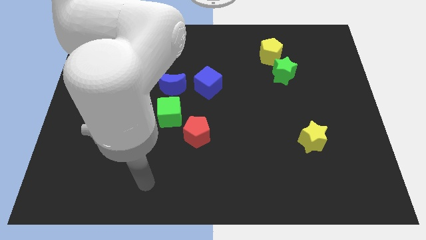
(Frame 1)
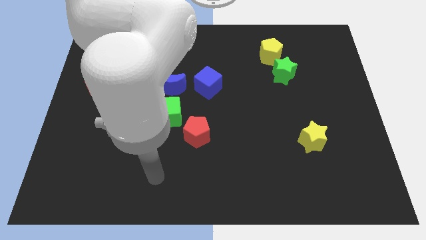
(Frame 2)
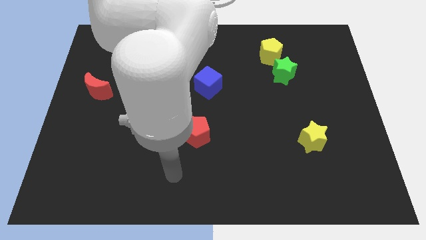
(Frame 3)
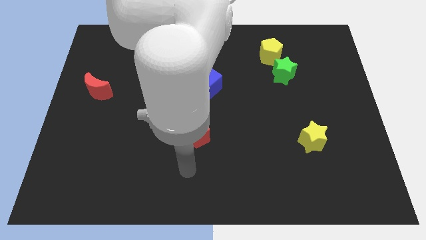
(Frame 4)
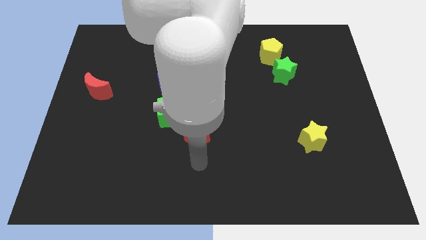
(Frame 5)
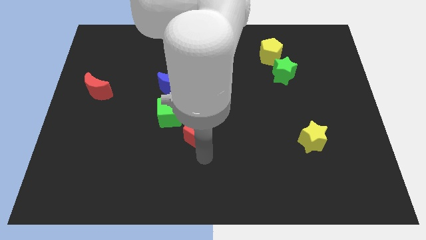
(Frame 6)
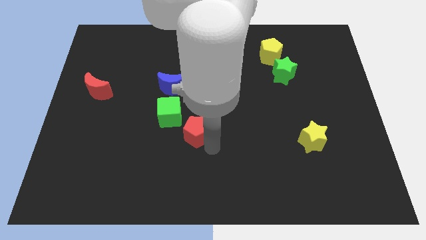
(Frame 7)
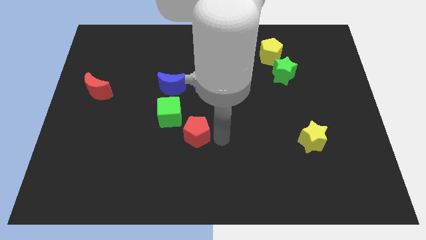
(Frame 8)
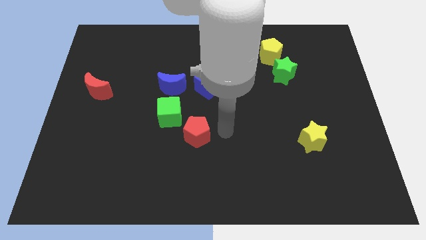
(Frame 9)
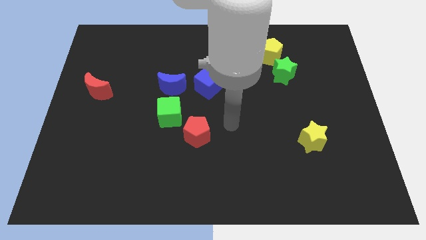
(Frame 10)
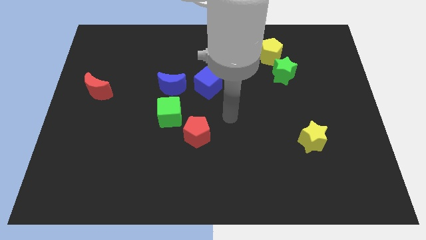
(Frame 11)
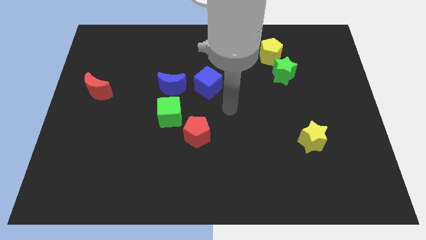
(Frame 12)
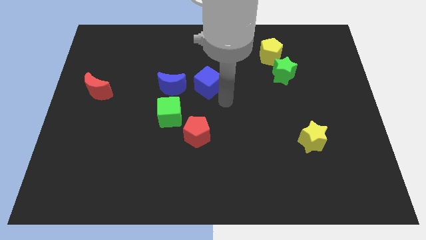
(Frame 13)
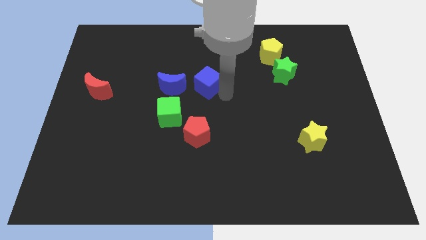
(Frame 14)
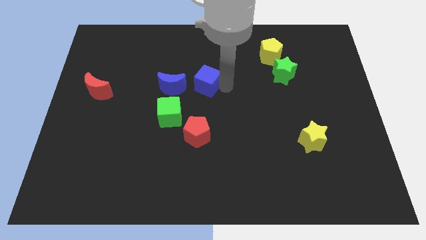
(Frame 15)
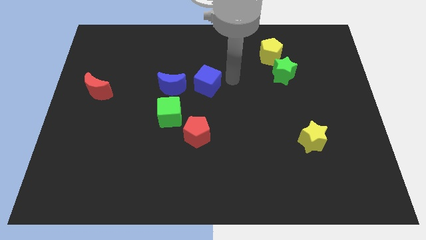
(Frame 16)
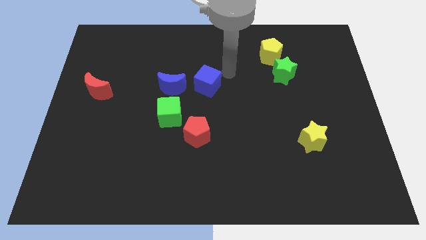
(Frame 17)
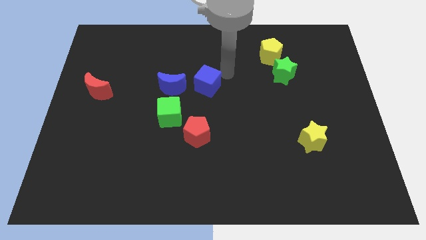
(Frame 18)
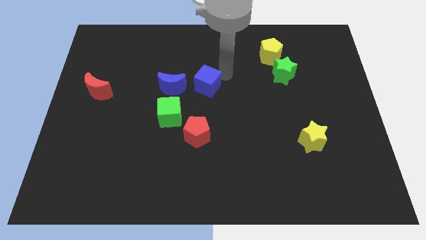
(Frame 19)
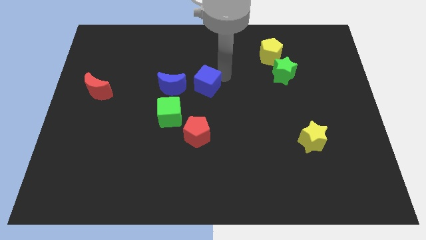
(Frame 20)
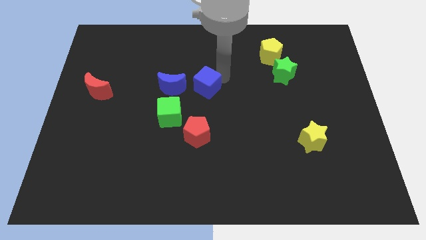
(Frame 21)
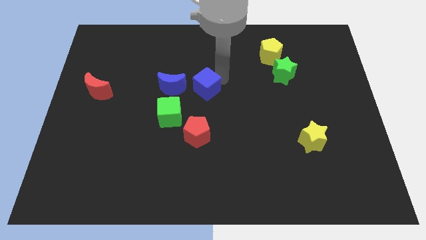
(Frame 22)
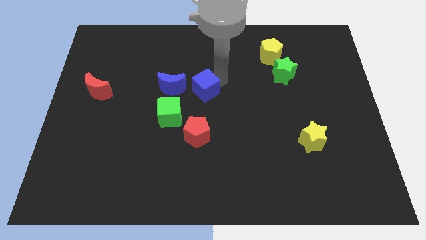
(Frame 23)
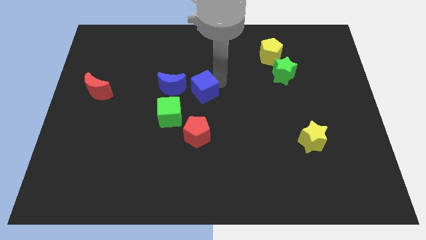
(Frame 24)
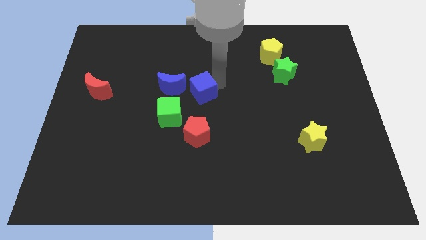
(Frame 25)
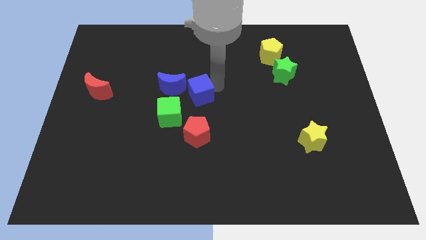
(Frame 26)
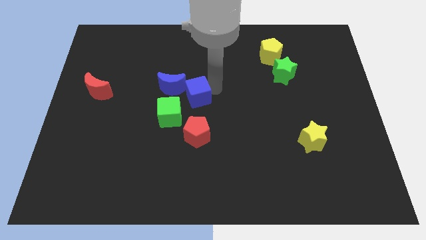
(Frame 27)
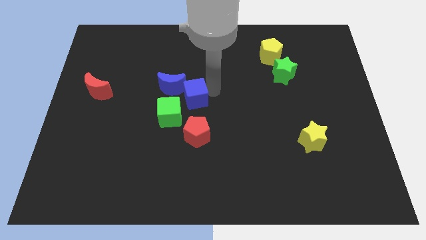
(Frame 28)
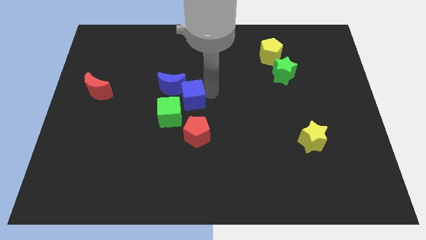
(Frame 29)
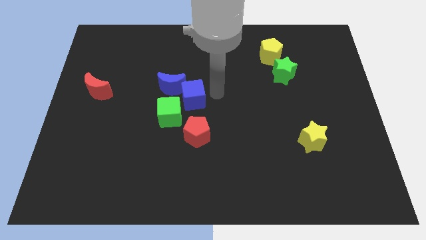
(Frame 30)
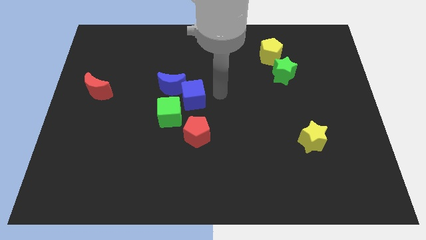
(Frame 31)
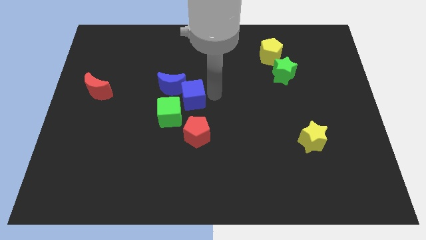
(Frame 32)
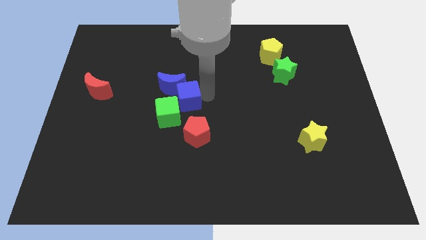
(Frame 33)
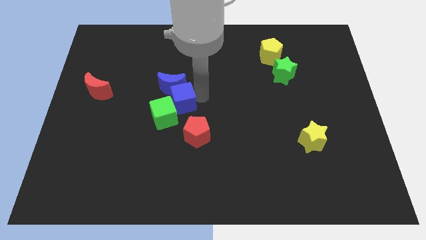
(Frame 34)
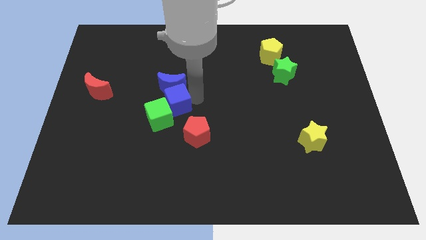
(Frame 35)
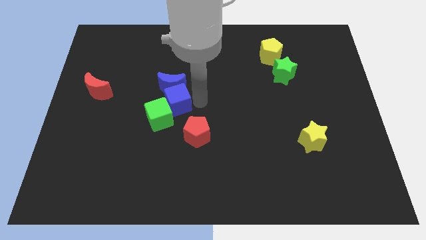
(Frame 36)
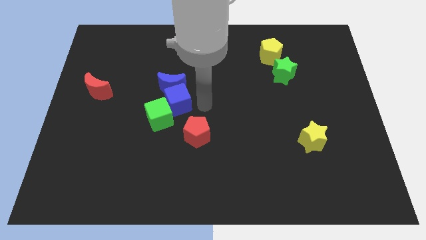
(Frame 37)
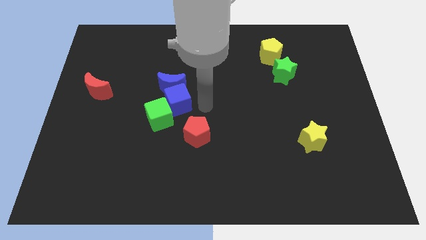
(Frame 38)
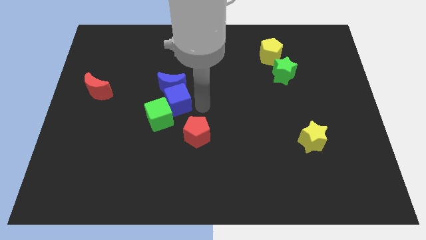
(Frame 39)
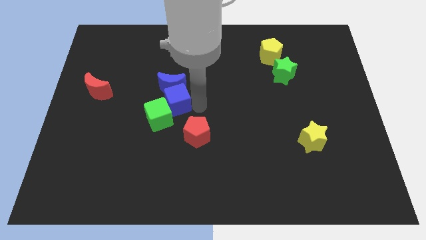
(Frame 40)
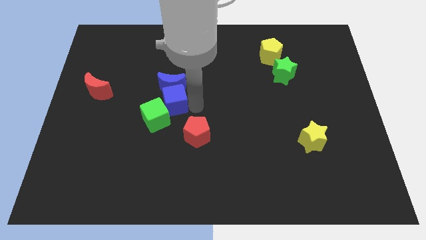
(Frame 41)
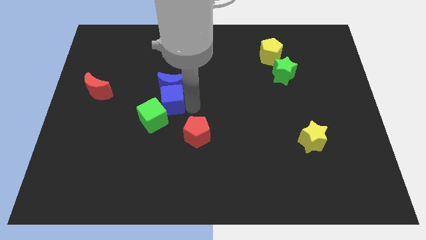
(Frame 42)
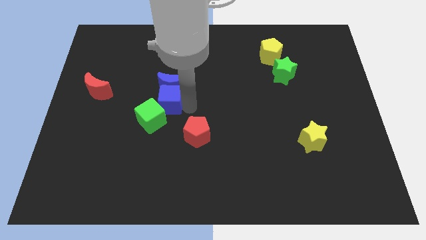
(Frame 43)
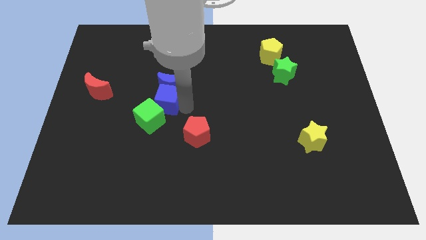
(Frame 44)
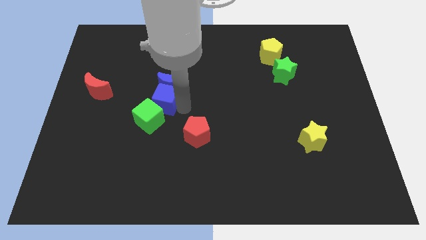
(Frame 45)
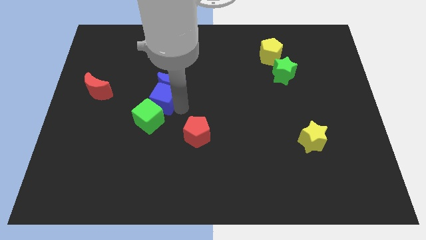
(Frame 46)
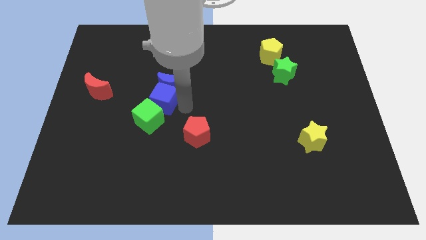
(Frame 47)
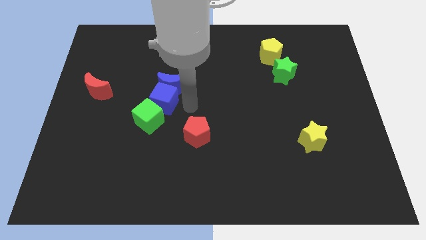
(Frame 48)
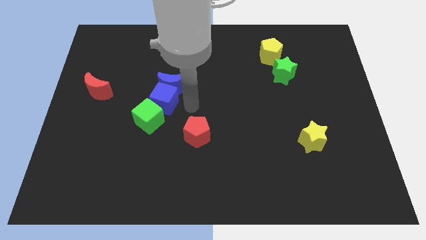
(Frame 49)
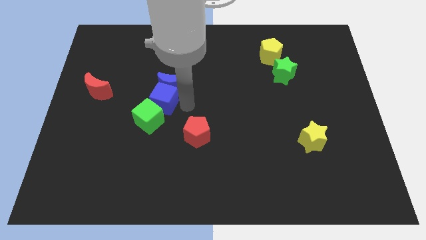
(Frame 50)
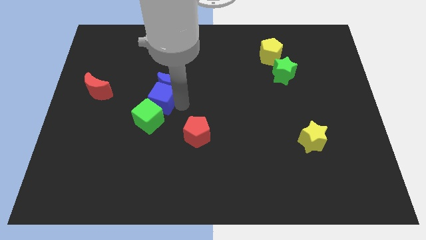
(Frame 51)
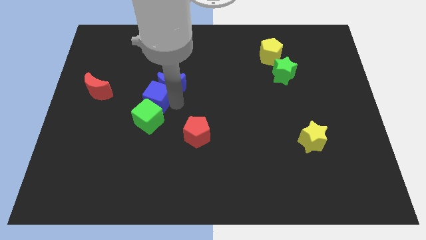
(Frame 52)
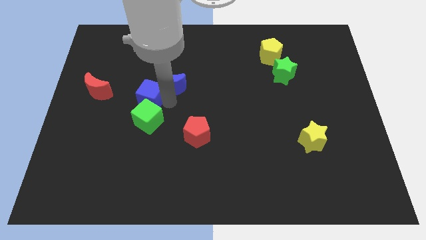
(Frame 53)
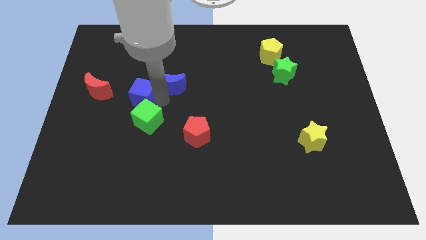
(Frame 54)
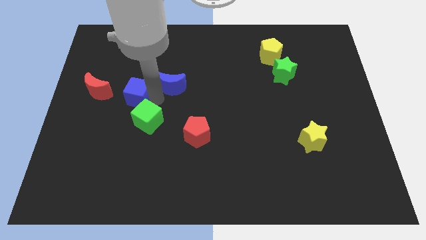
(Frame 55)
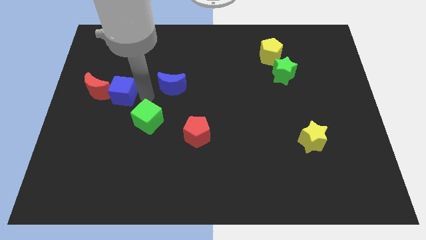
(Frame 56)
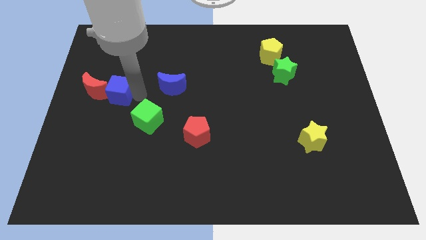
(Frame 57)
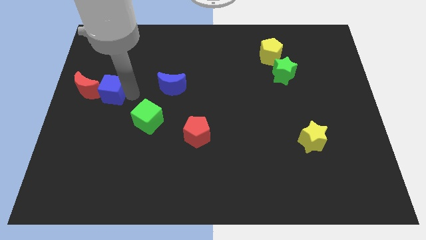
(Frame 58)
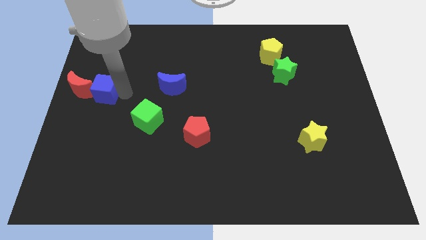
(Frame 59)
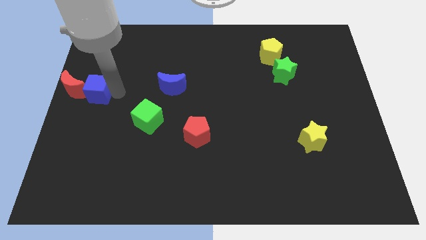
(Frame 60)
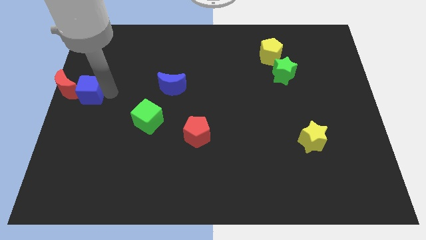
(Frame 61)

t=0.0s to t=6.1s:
put the blue cube next to the red moon

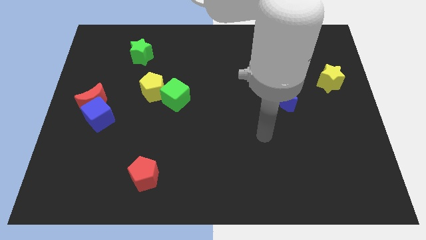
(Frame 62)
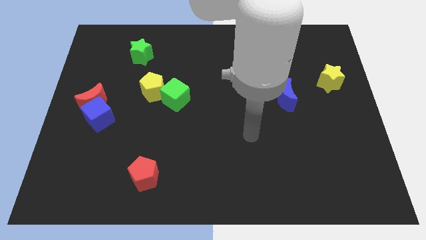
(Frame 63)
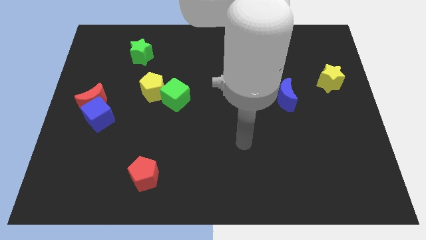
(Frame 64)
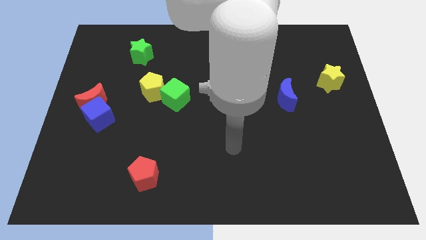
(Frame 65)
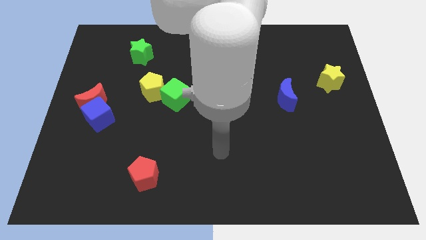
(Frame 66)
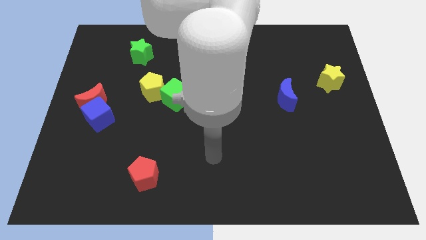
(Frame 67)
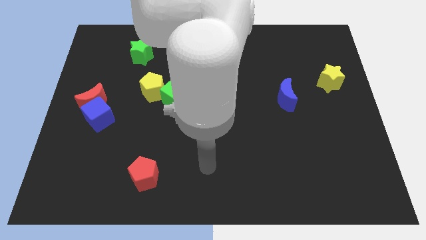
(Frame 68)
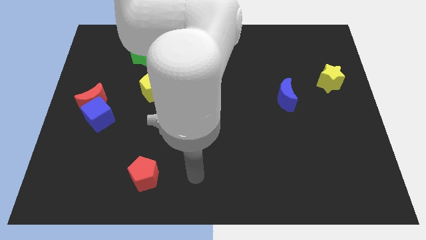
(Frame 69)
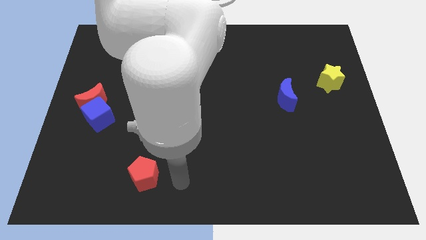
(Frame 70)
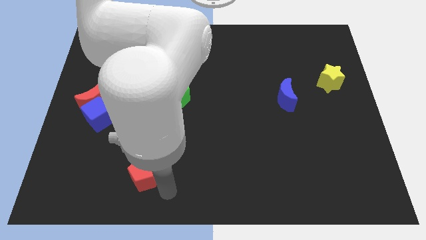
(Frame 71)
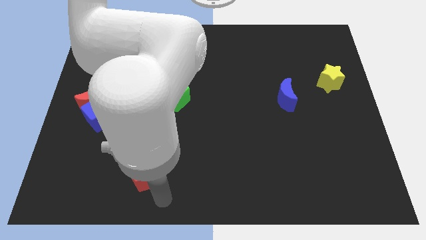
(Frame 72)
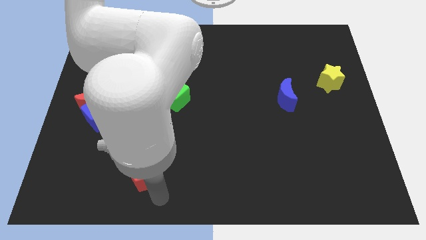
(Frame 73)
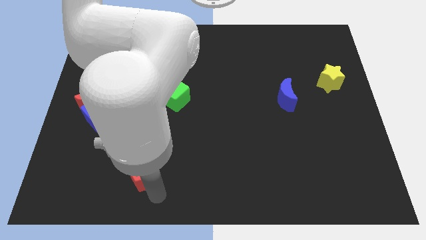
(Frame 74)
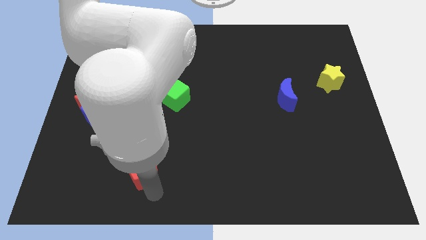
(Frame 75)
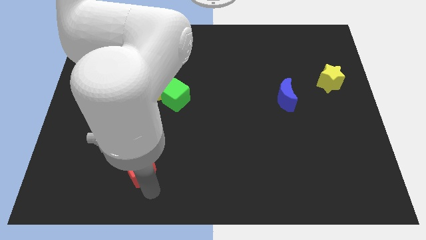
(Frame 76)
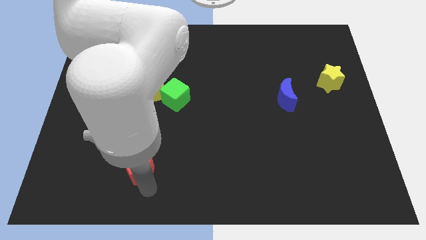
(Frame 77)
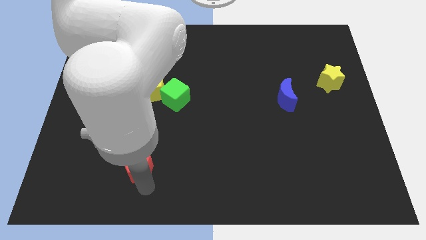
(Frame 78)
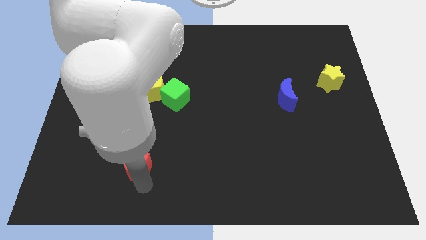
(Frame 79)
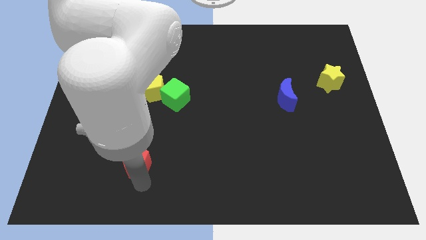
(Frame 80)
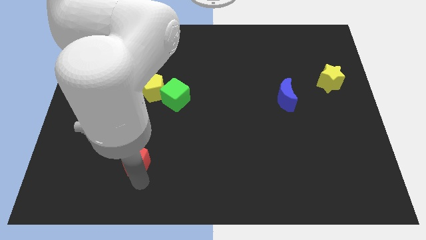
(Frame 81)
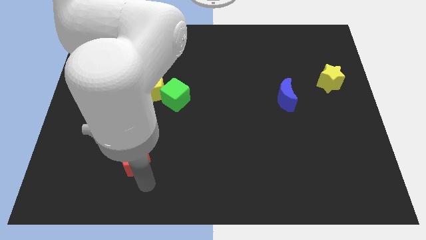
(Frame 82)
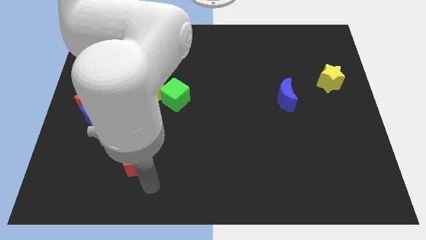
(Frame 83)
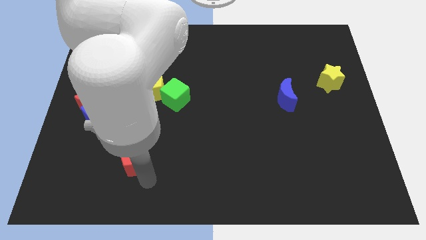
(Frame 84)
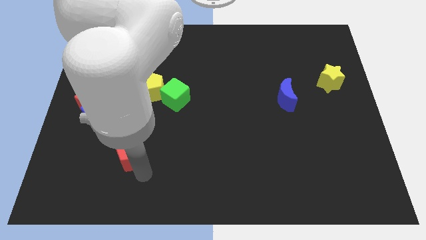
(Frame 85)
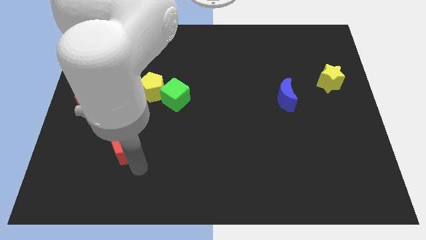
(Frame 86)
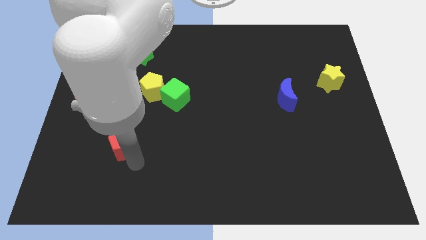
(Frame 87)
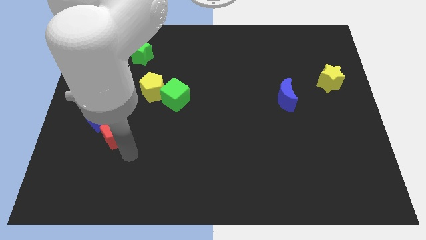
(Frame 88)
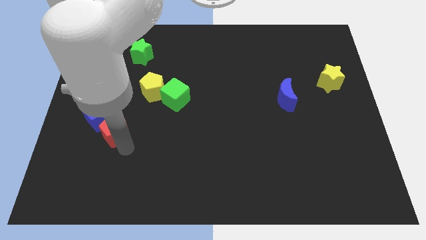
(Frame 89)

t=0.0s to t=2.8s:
move the red pentagon towards the blue cube
